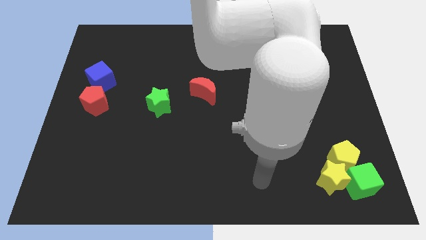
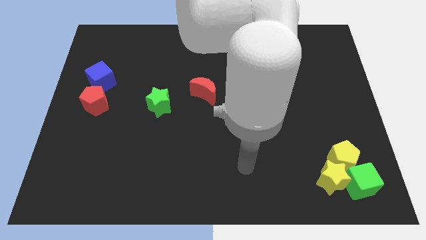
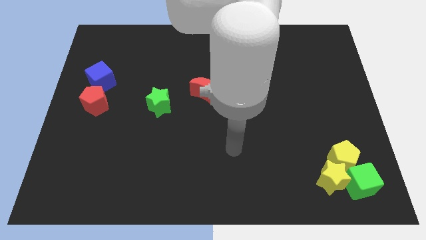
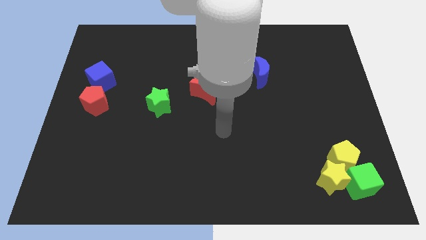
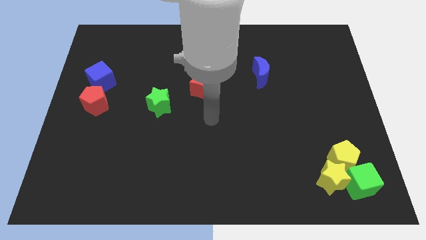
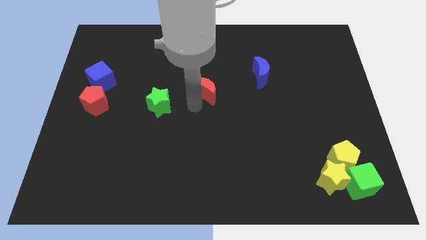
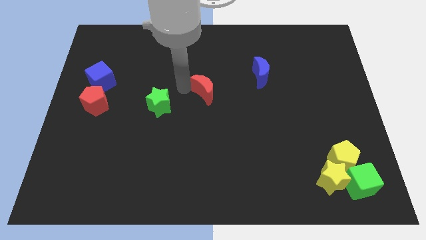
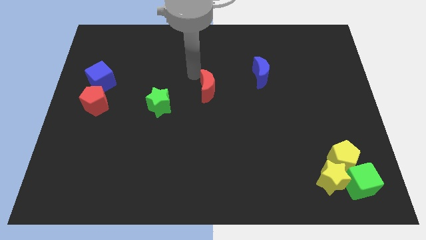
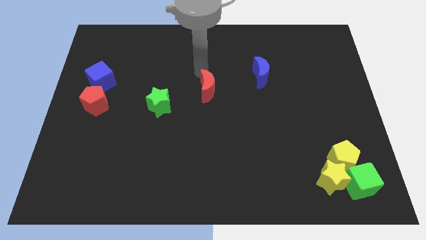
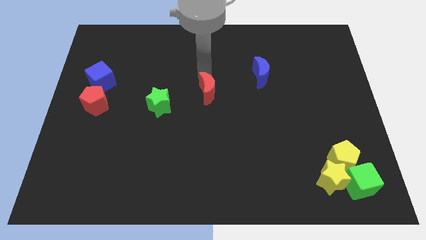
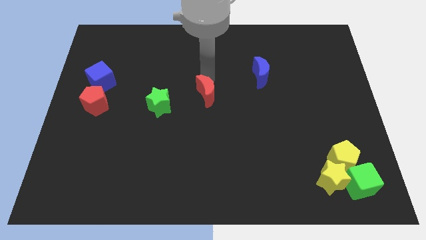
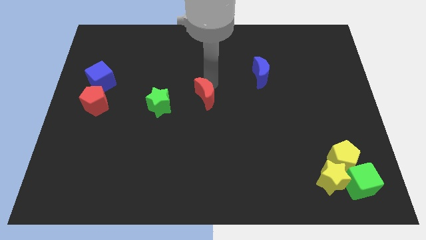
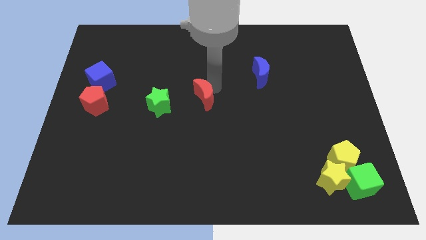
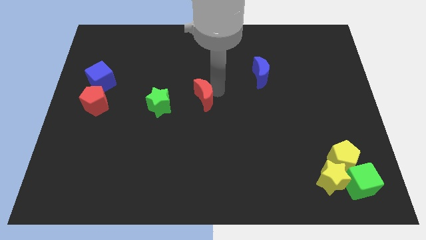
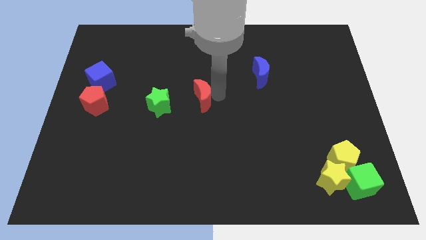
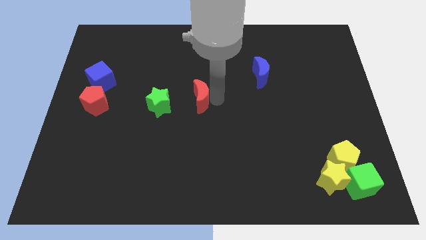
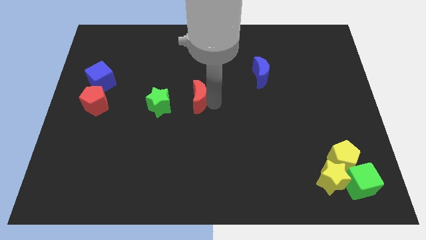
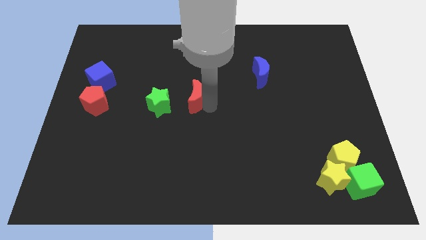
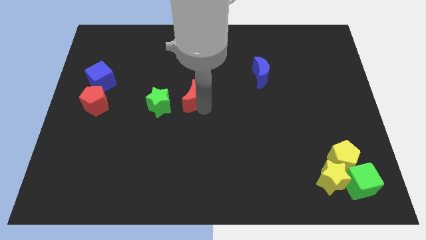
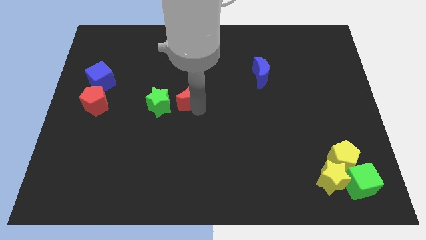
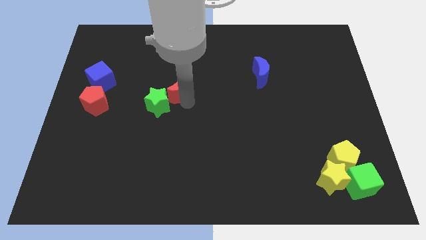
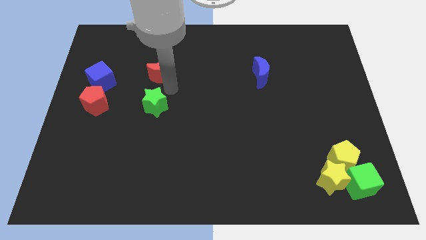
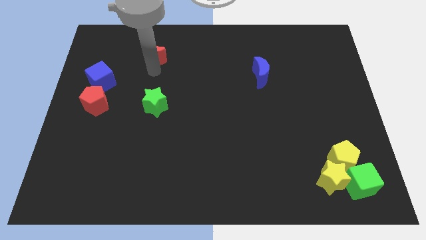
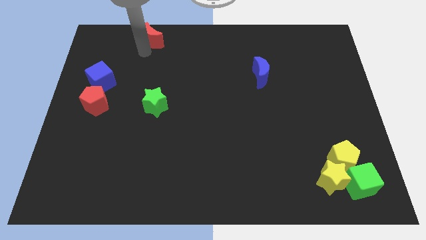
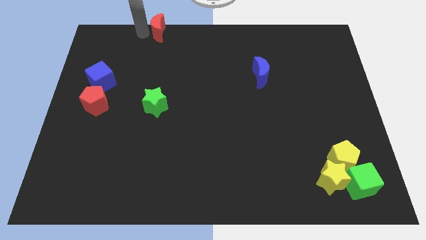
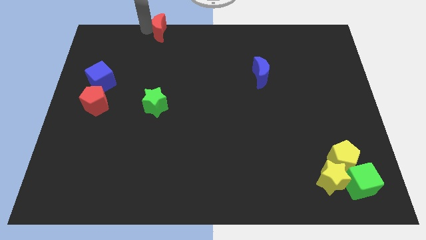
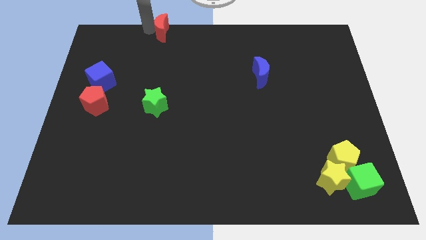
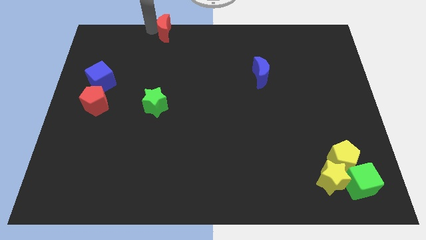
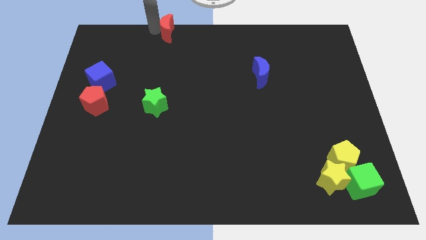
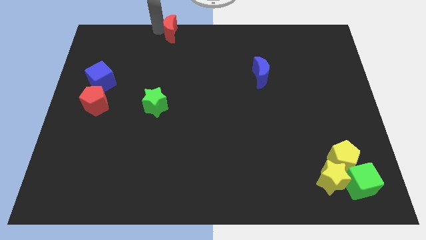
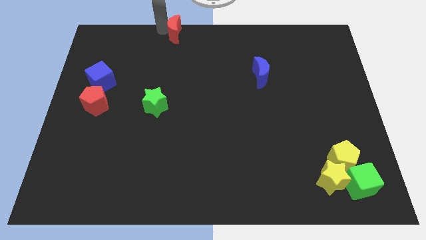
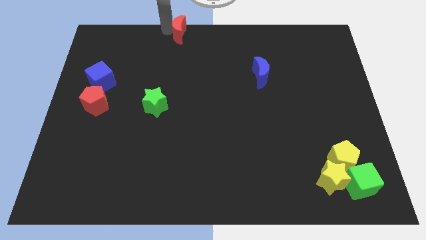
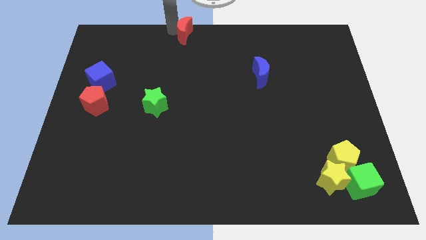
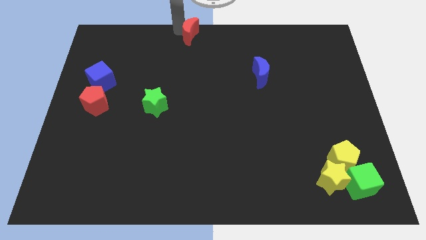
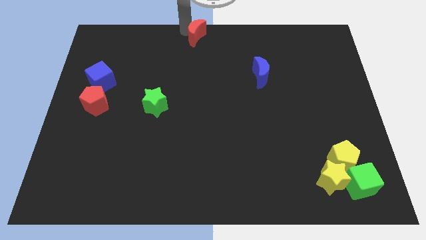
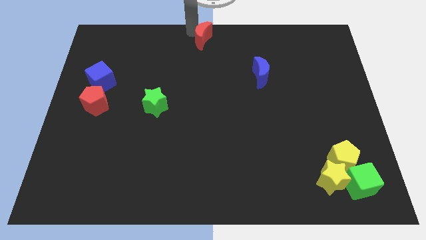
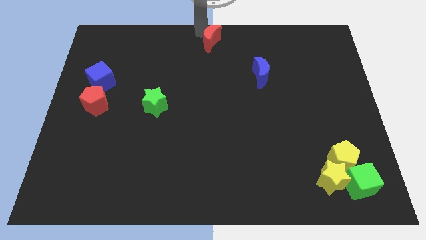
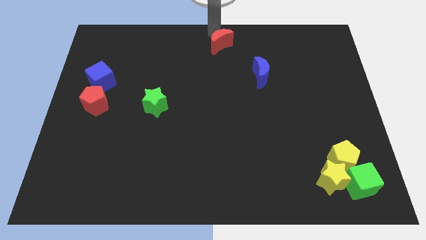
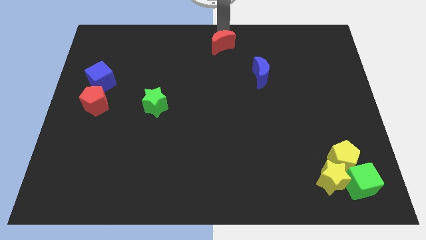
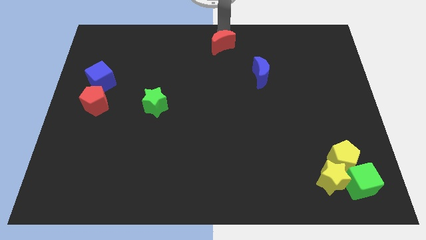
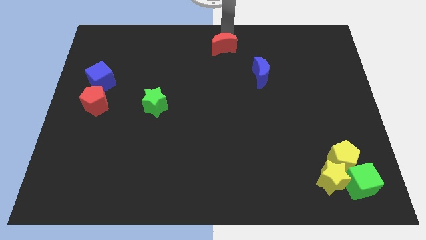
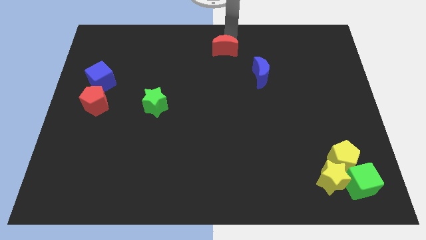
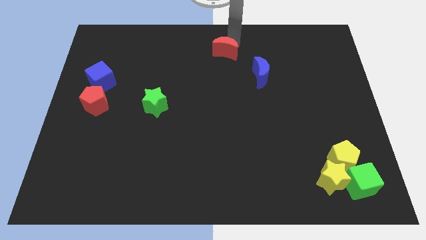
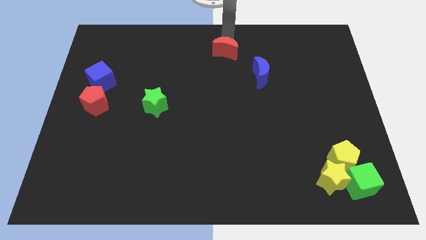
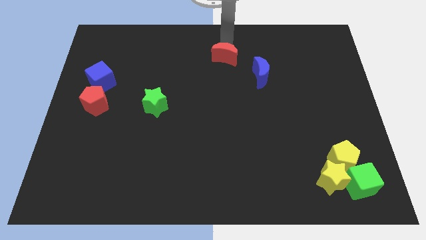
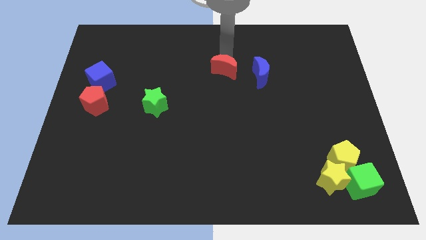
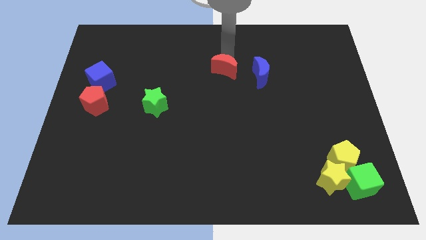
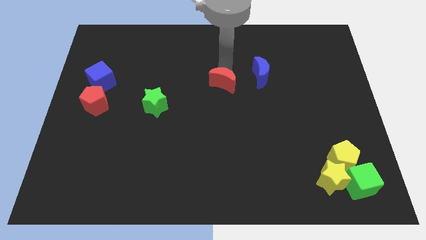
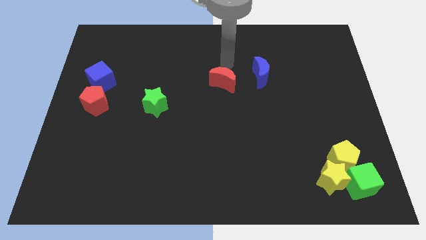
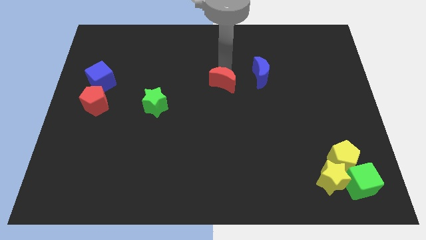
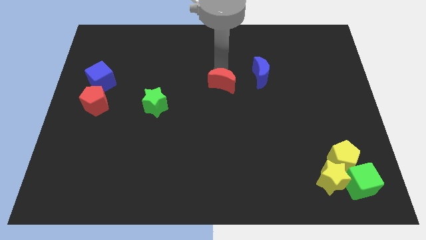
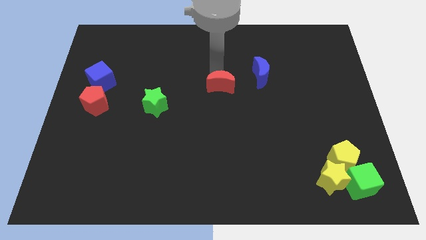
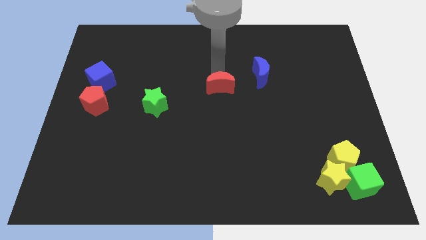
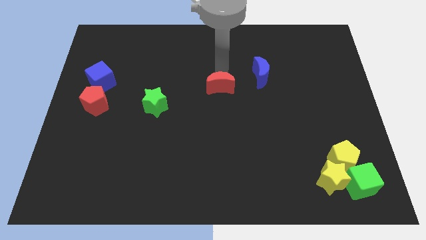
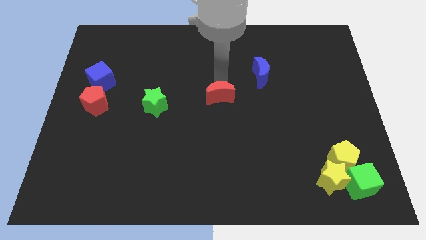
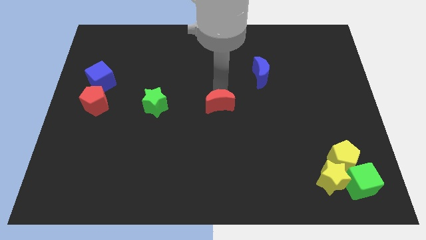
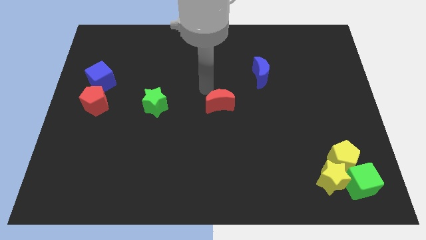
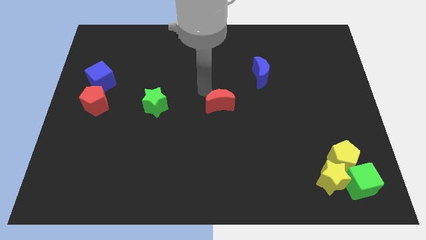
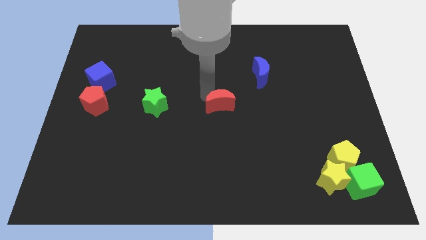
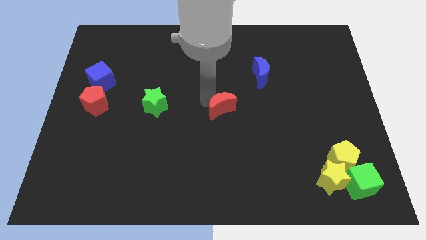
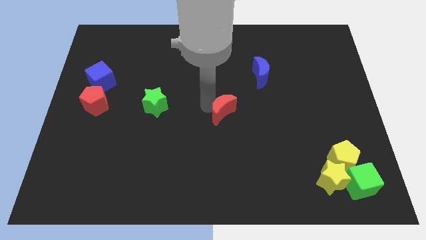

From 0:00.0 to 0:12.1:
push the red moon somewhat down and right diagonally

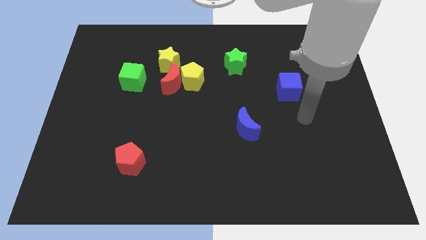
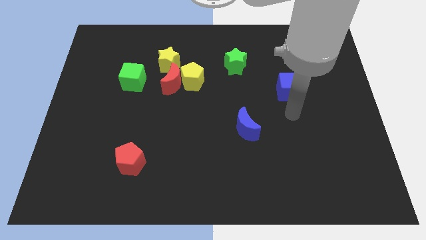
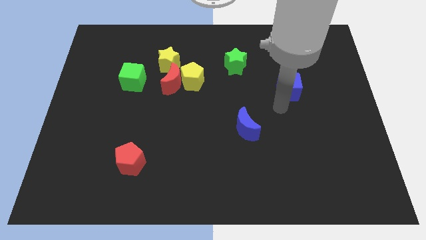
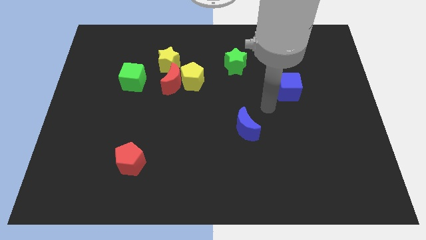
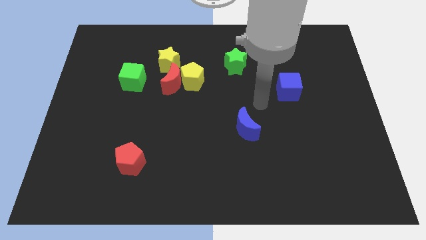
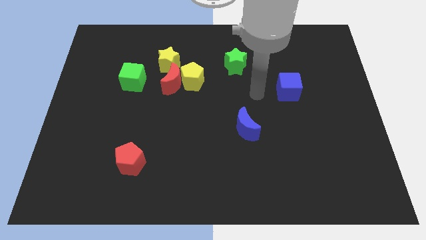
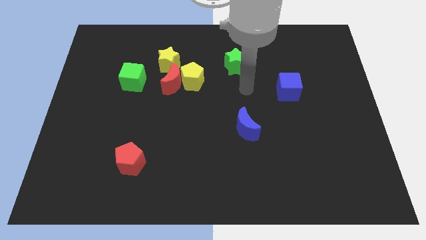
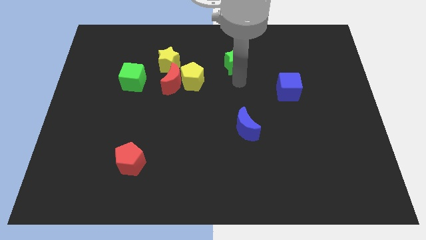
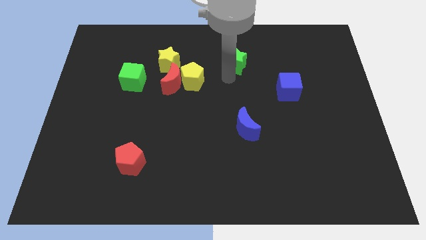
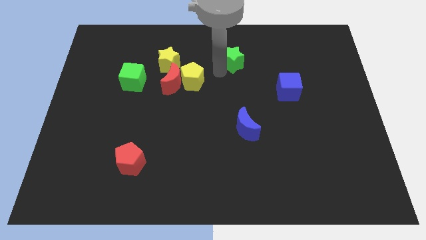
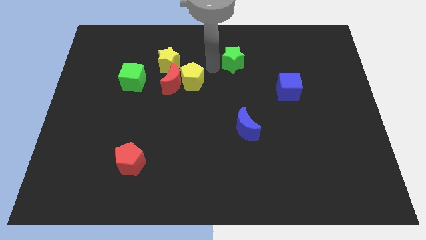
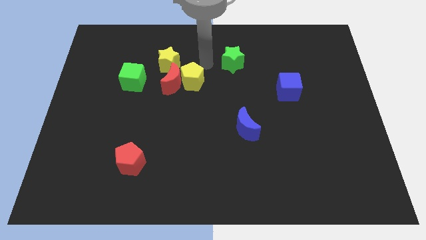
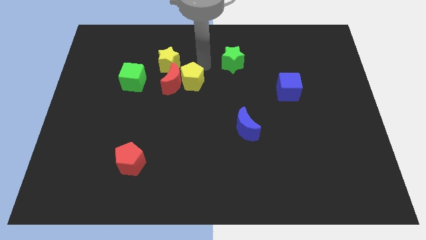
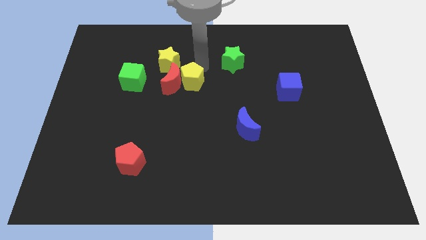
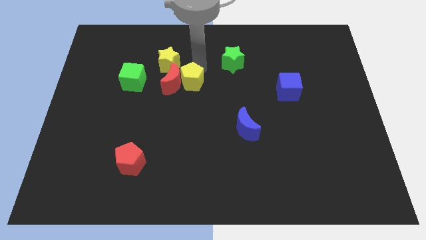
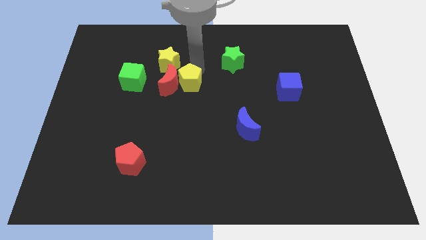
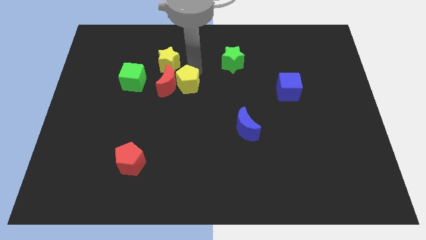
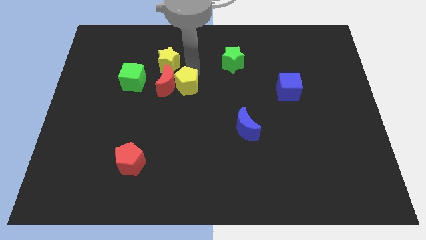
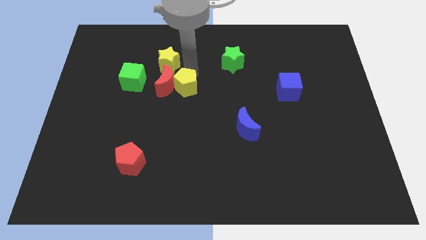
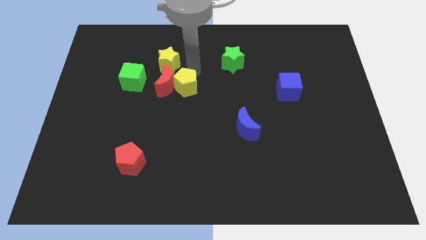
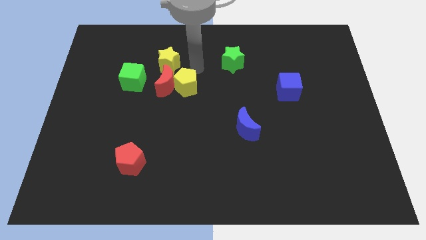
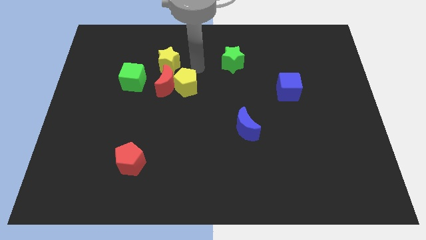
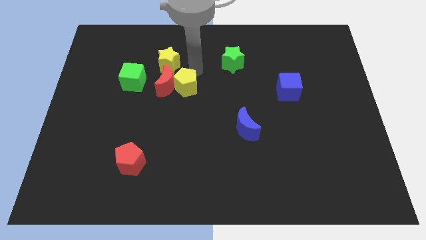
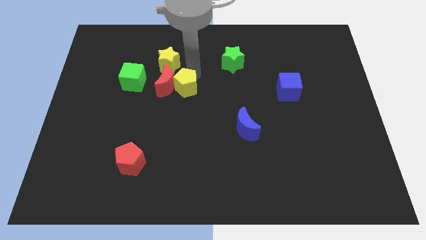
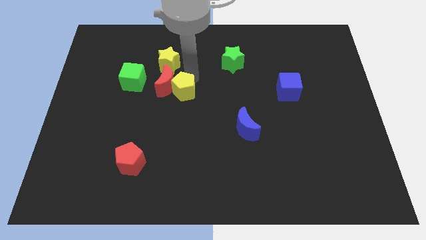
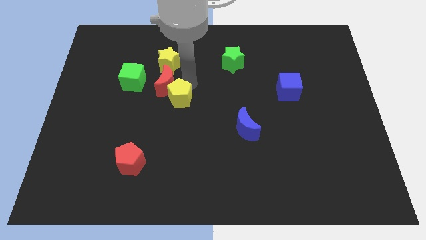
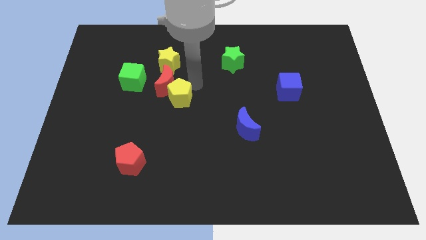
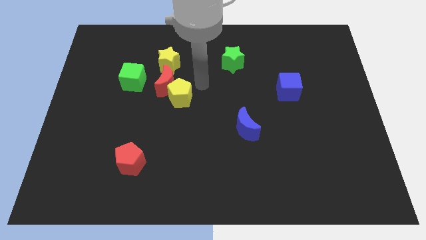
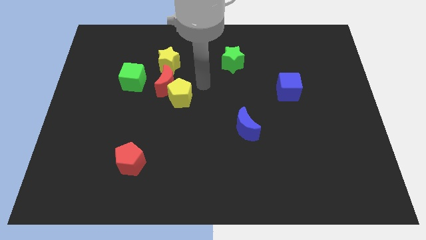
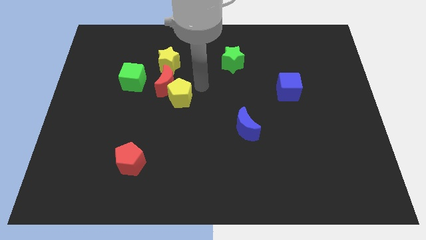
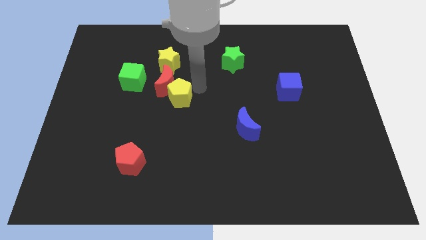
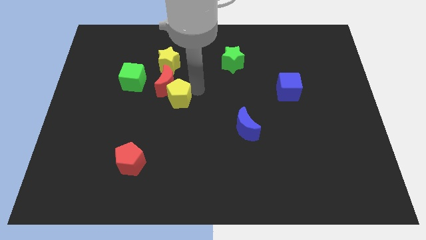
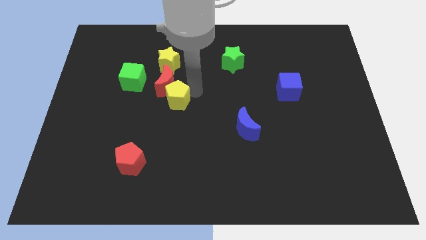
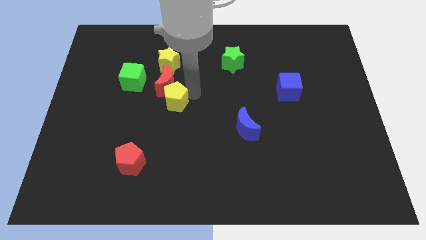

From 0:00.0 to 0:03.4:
slide the yellow pentagon a little bit downwards and then to the left
